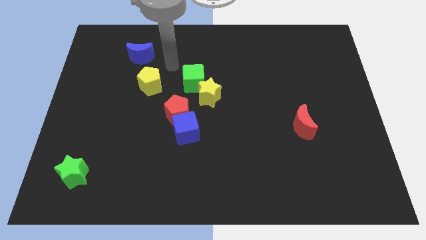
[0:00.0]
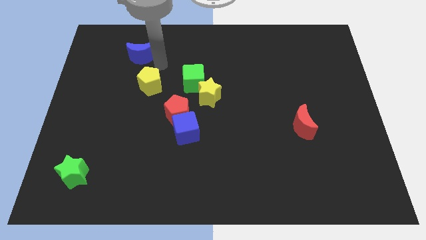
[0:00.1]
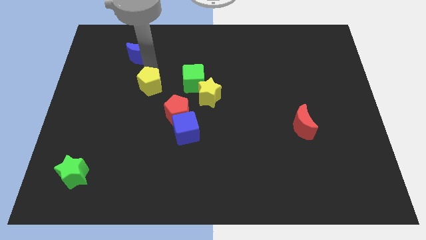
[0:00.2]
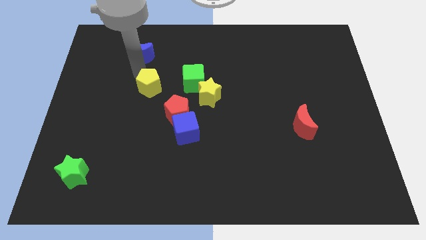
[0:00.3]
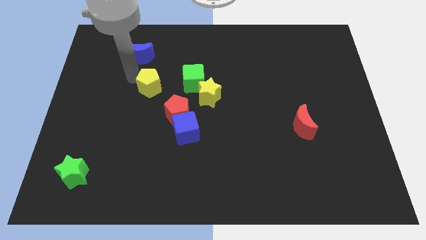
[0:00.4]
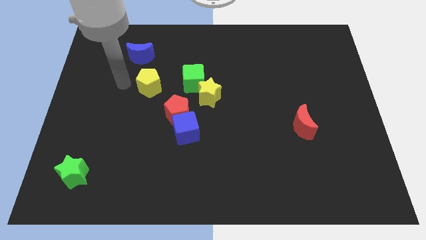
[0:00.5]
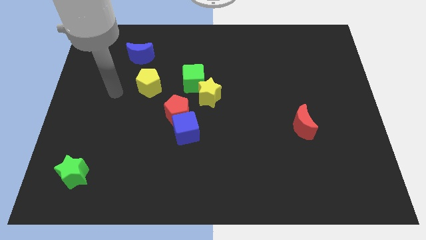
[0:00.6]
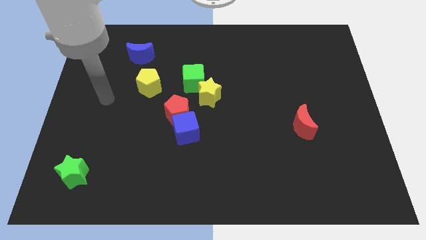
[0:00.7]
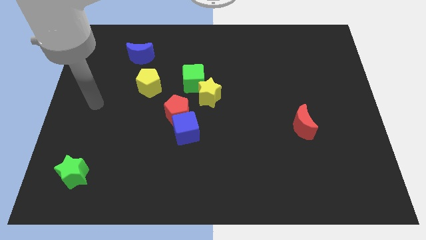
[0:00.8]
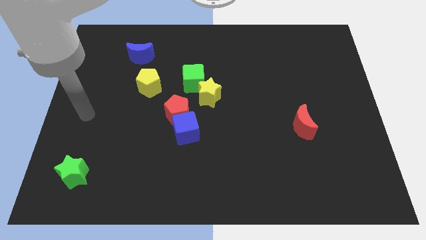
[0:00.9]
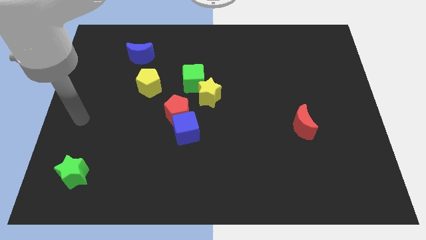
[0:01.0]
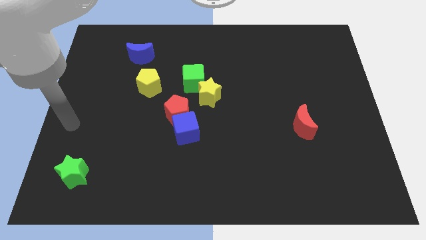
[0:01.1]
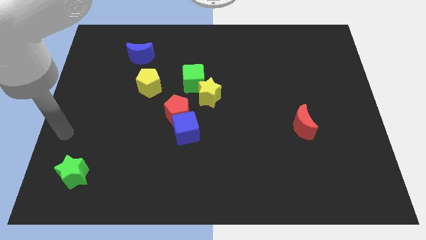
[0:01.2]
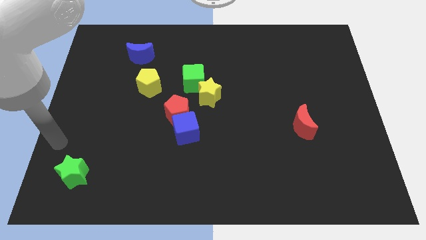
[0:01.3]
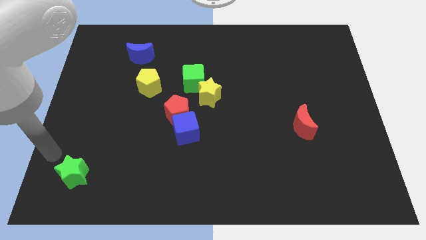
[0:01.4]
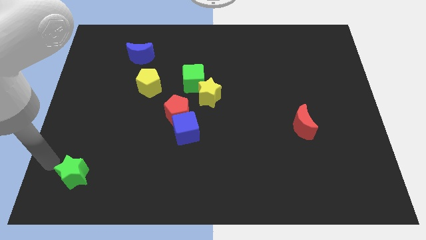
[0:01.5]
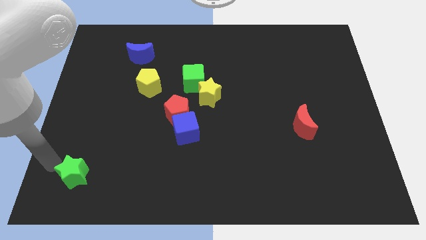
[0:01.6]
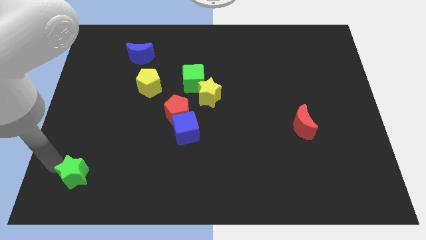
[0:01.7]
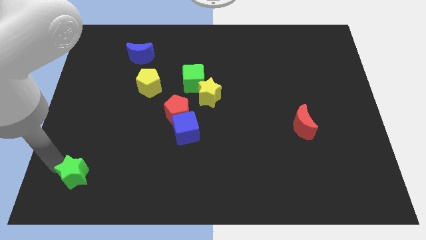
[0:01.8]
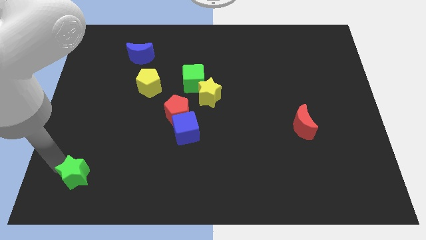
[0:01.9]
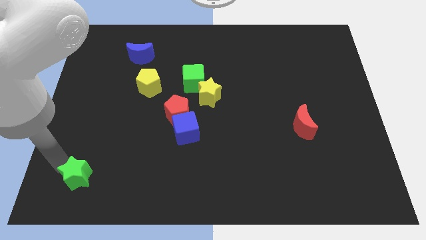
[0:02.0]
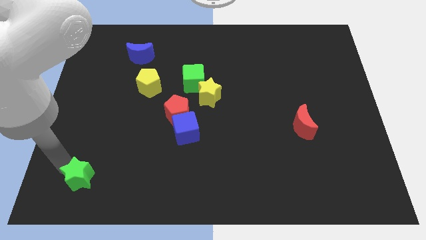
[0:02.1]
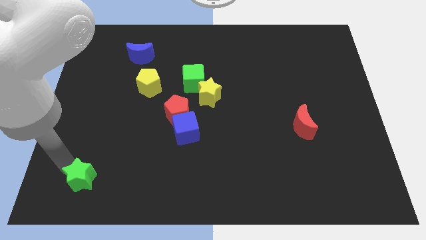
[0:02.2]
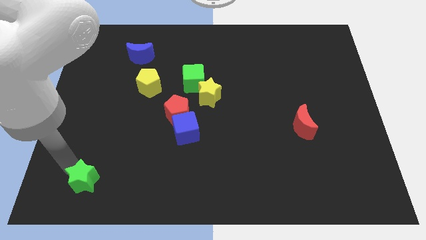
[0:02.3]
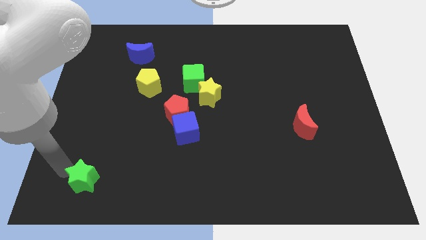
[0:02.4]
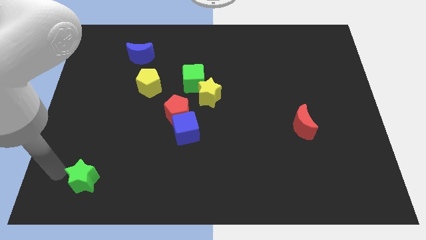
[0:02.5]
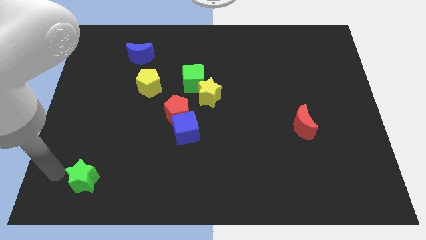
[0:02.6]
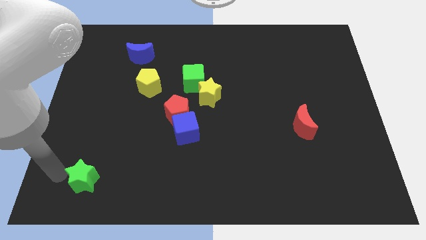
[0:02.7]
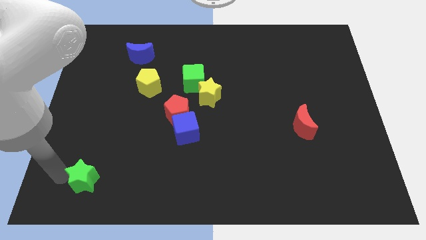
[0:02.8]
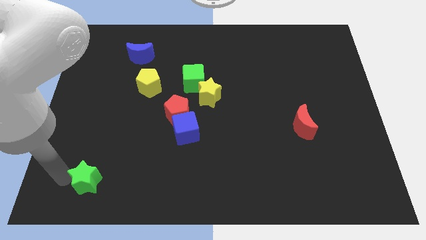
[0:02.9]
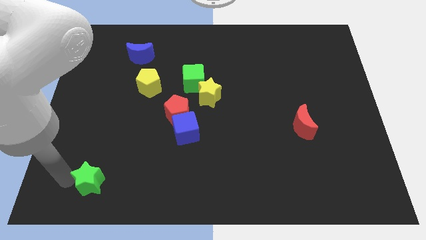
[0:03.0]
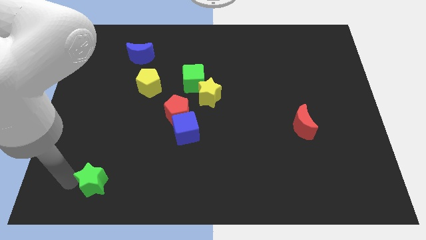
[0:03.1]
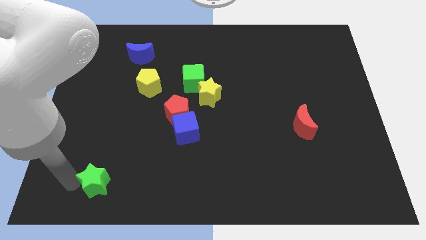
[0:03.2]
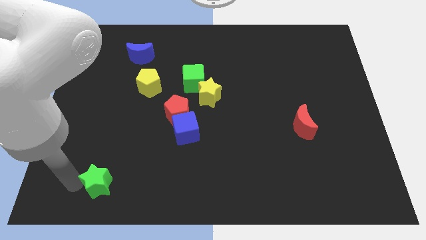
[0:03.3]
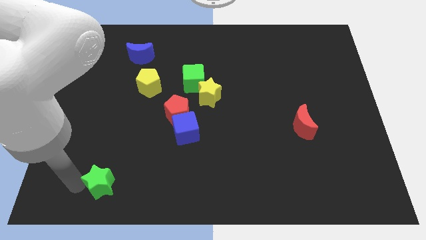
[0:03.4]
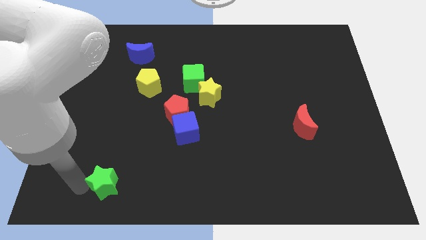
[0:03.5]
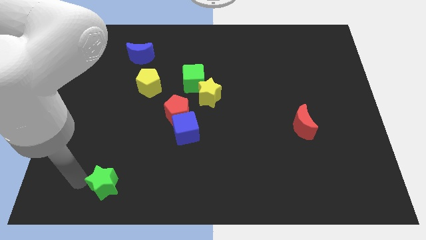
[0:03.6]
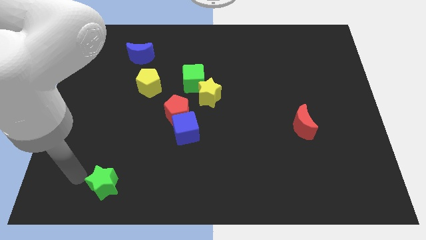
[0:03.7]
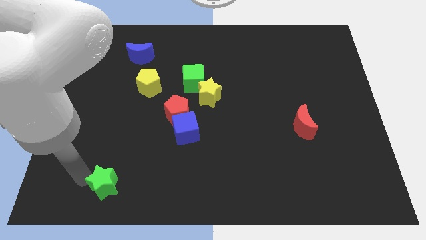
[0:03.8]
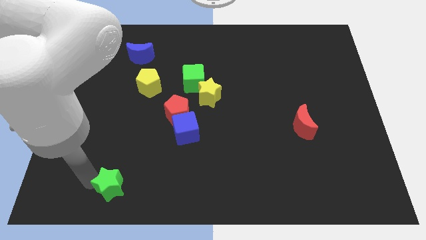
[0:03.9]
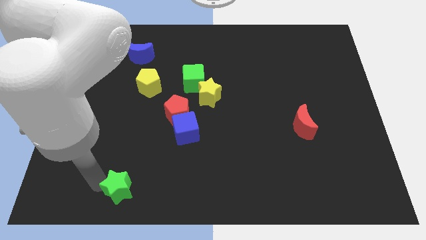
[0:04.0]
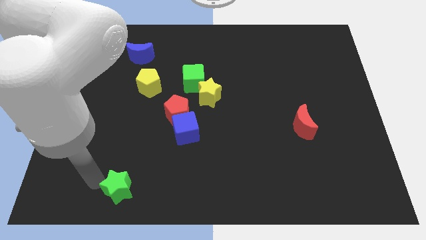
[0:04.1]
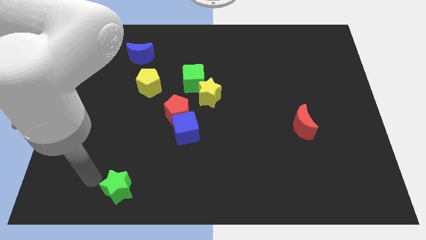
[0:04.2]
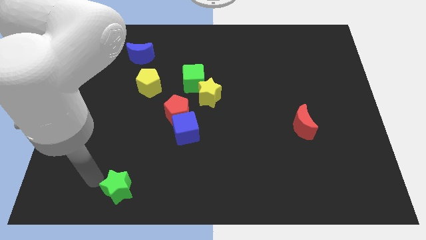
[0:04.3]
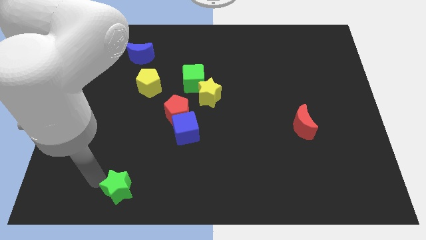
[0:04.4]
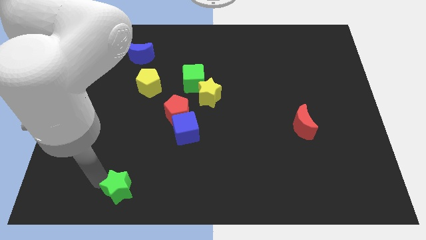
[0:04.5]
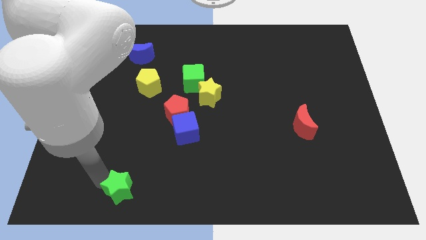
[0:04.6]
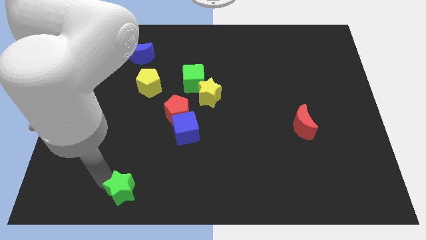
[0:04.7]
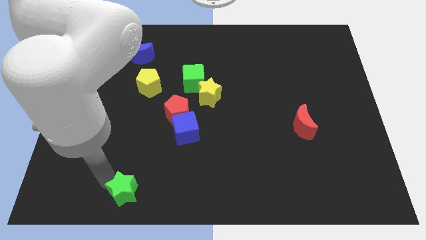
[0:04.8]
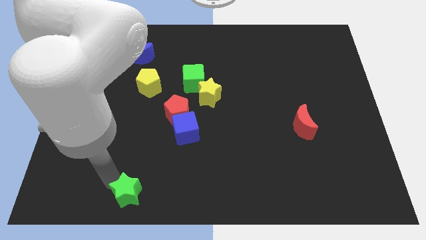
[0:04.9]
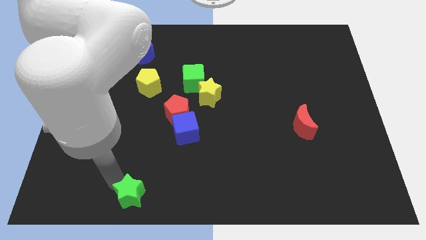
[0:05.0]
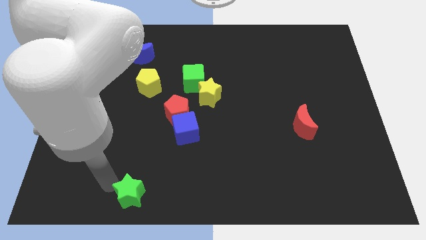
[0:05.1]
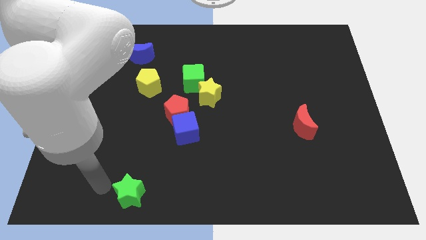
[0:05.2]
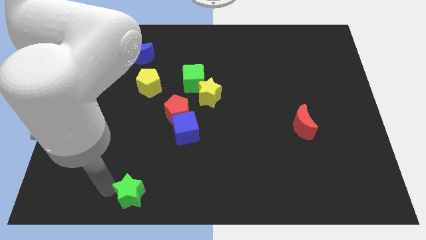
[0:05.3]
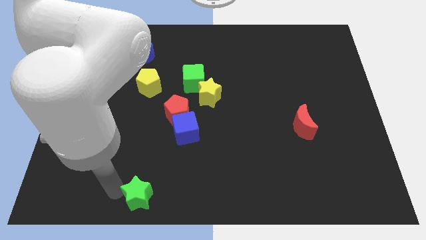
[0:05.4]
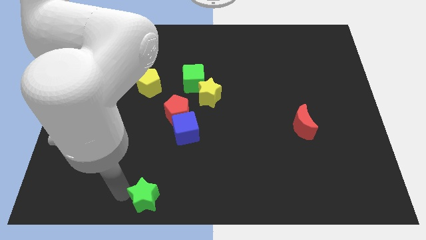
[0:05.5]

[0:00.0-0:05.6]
move the green star to the bottom side

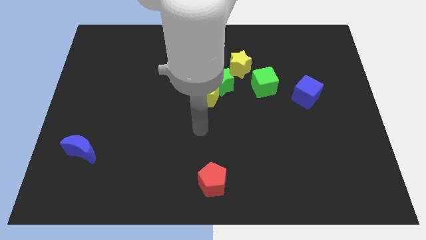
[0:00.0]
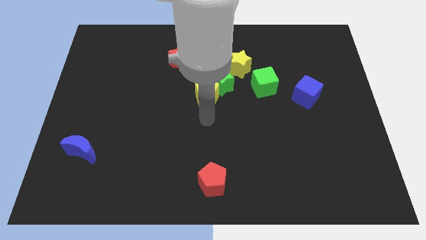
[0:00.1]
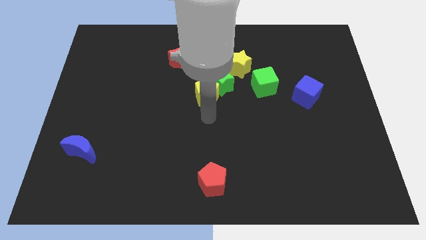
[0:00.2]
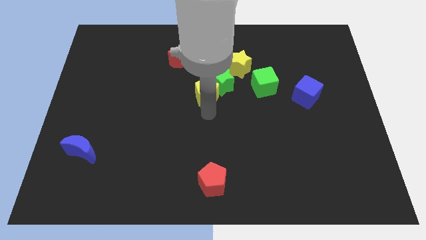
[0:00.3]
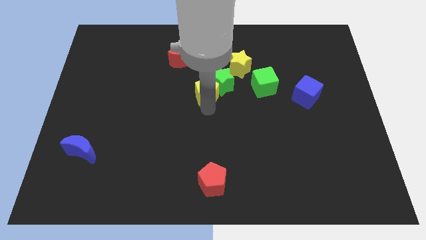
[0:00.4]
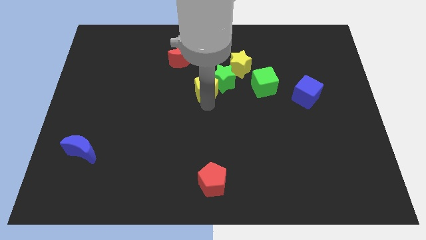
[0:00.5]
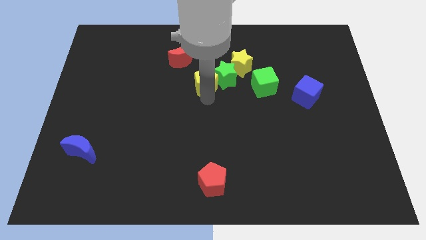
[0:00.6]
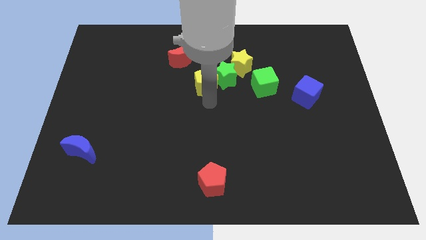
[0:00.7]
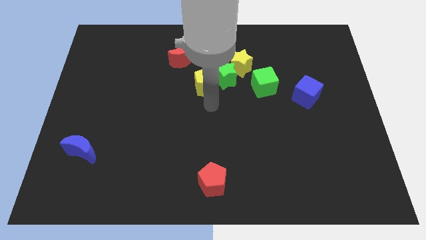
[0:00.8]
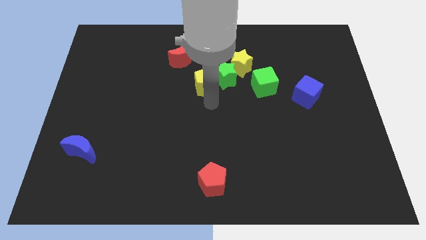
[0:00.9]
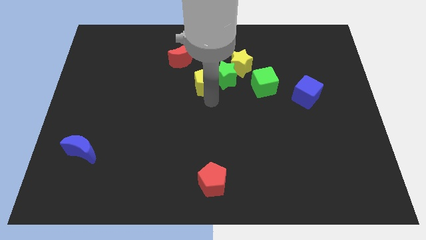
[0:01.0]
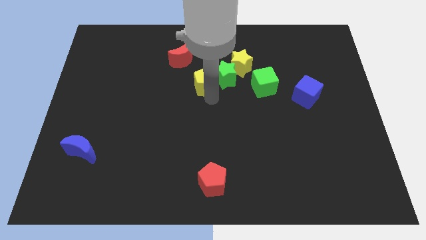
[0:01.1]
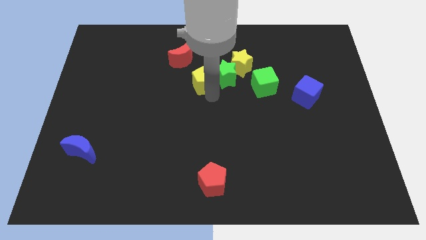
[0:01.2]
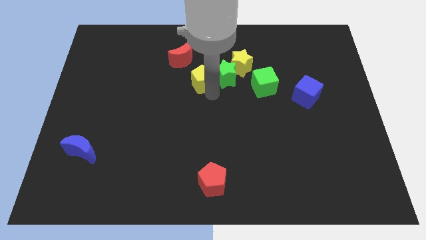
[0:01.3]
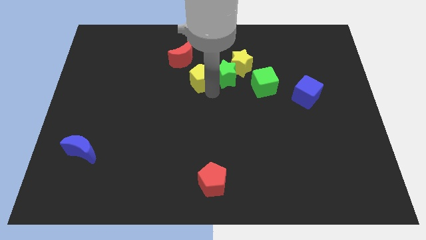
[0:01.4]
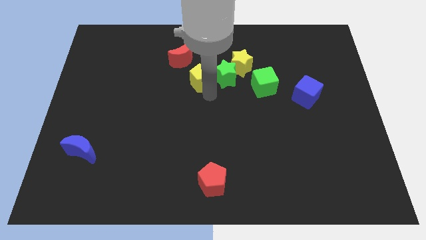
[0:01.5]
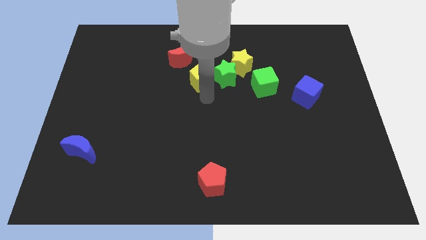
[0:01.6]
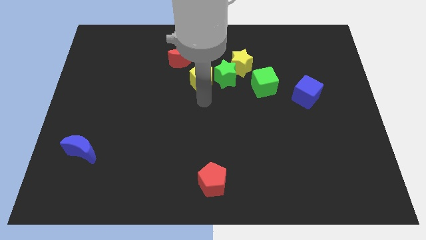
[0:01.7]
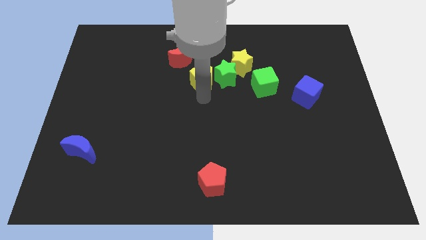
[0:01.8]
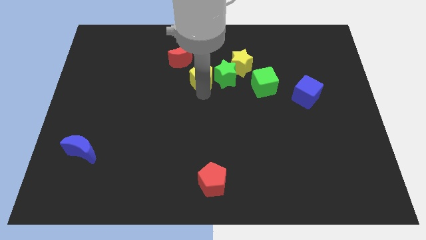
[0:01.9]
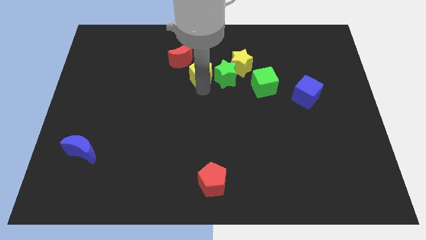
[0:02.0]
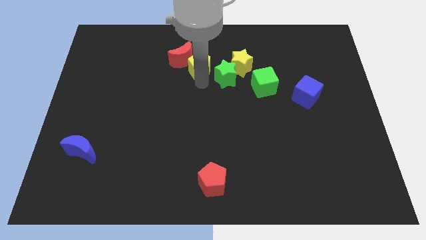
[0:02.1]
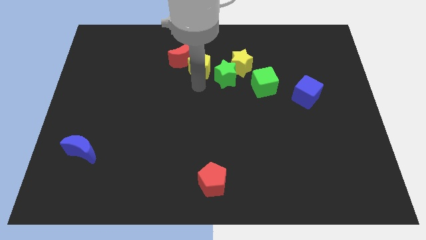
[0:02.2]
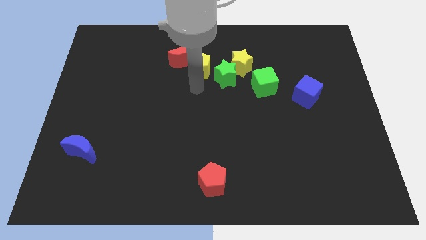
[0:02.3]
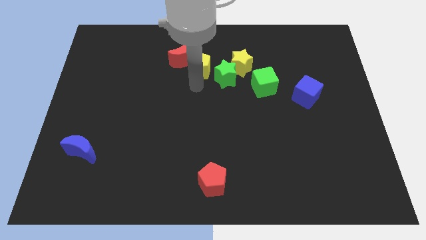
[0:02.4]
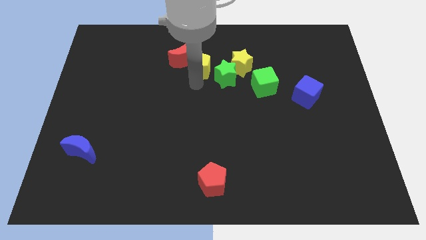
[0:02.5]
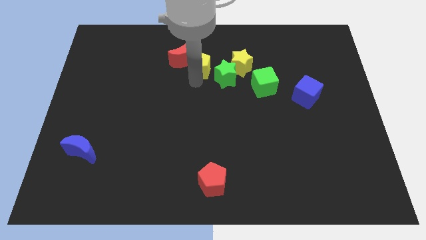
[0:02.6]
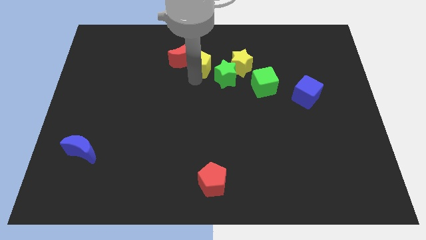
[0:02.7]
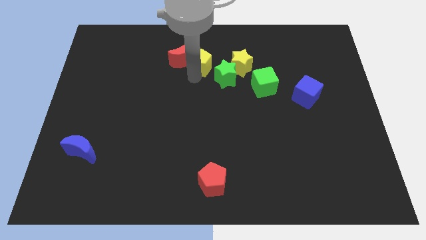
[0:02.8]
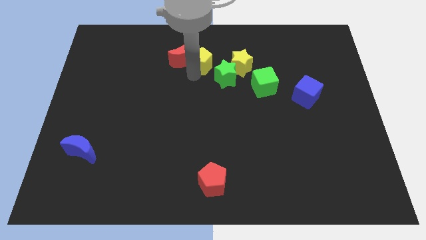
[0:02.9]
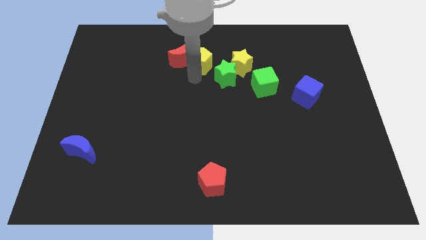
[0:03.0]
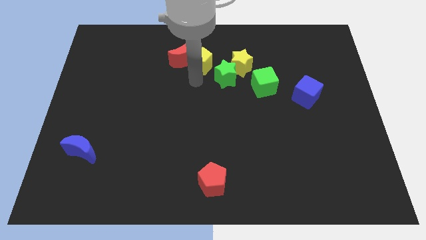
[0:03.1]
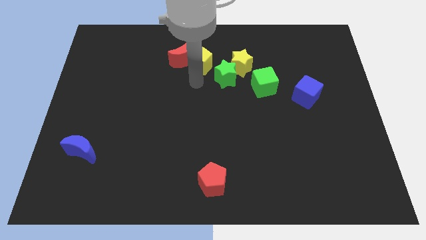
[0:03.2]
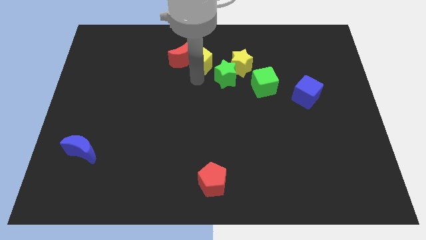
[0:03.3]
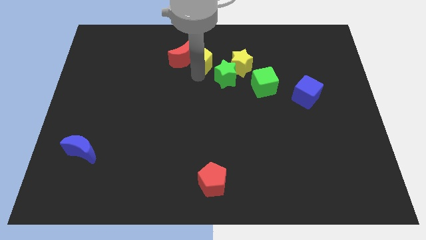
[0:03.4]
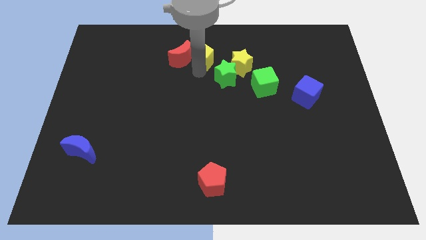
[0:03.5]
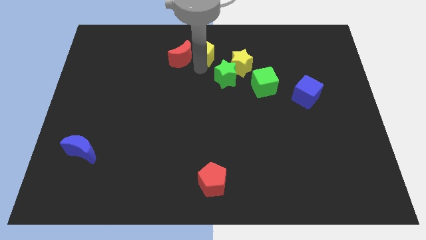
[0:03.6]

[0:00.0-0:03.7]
put the yellow pentagon to the top side
